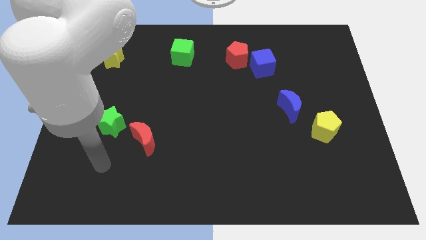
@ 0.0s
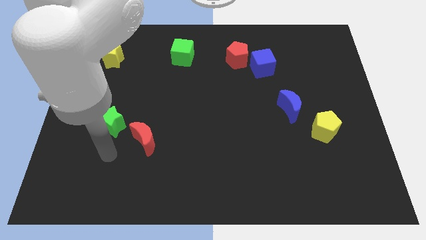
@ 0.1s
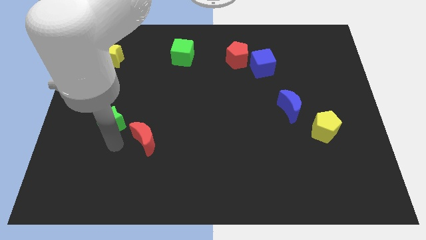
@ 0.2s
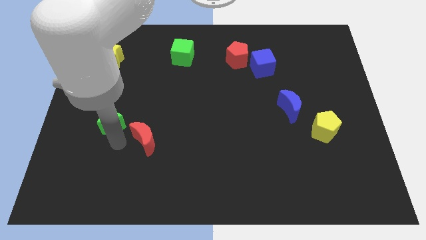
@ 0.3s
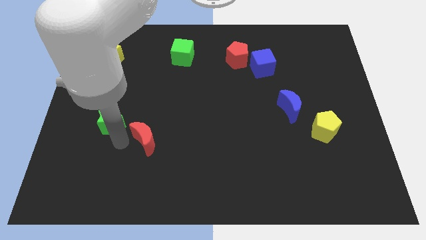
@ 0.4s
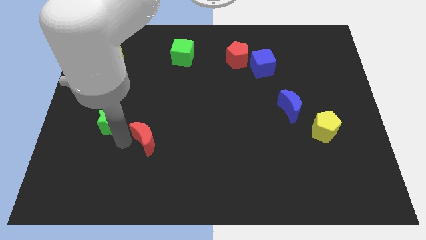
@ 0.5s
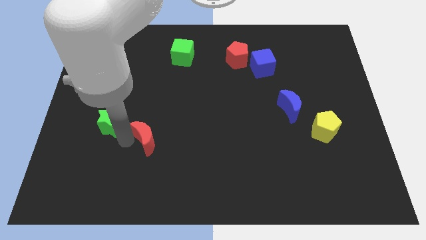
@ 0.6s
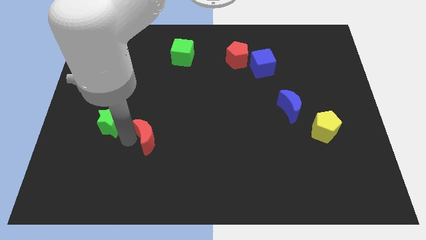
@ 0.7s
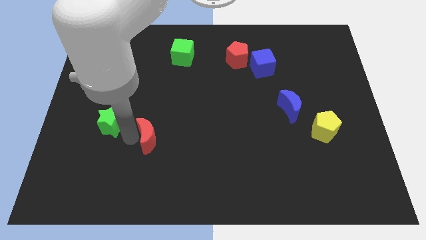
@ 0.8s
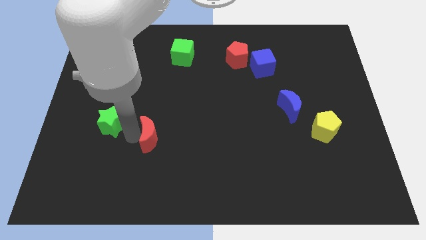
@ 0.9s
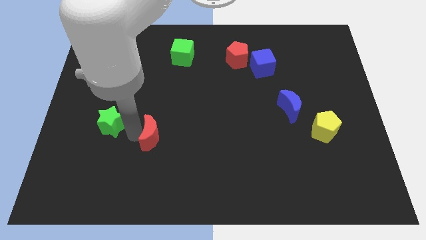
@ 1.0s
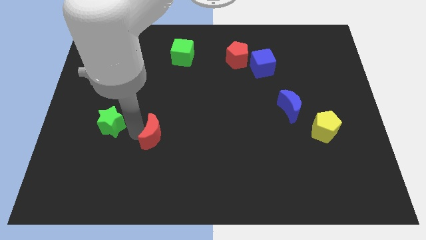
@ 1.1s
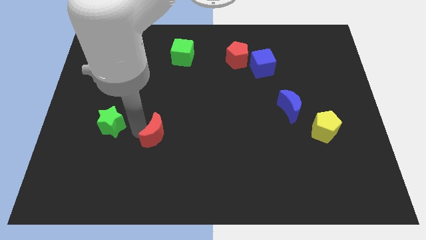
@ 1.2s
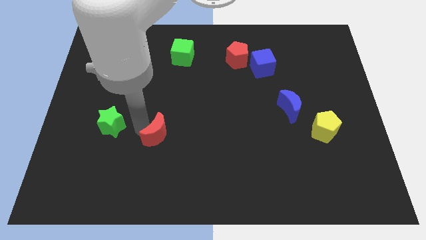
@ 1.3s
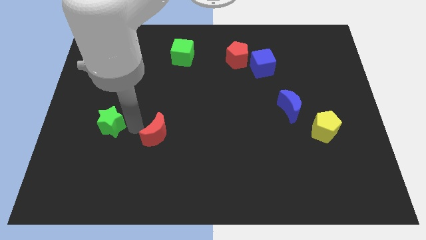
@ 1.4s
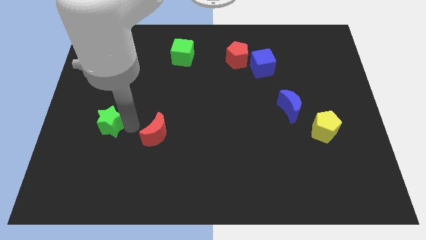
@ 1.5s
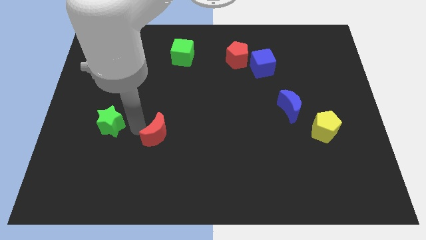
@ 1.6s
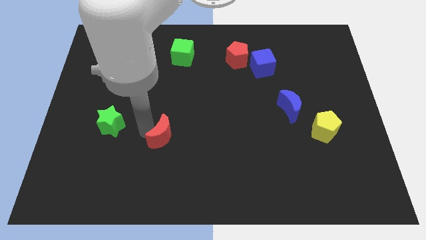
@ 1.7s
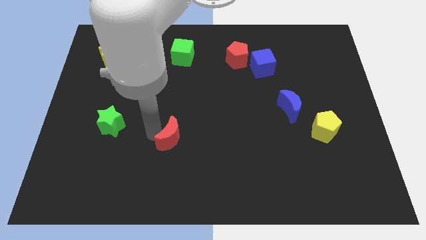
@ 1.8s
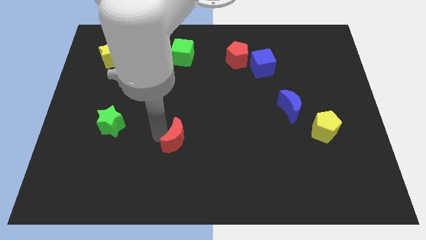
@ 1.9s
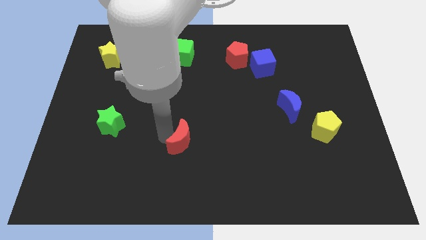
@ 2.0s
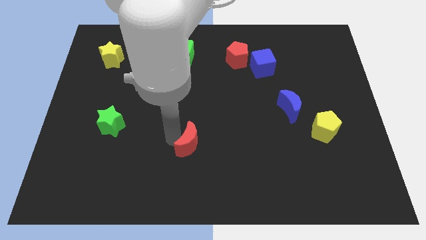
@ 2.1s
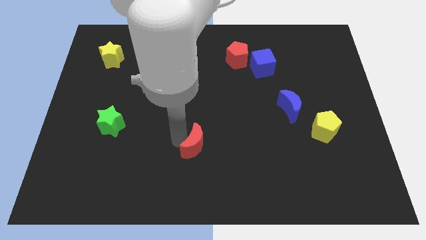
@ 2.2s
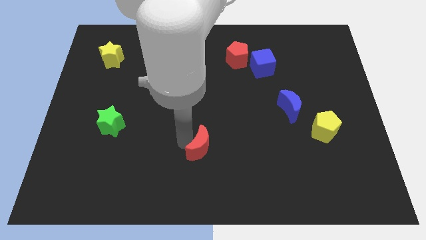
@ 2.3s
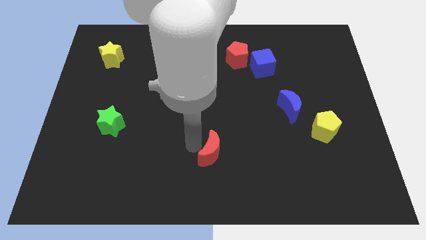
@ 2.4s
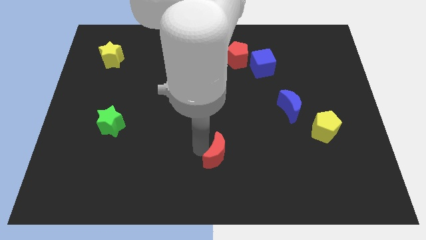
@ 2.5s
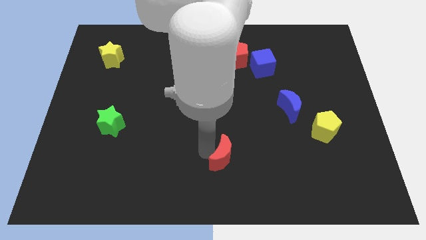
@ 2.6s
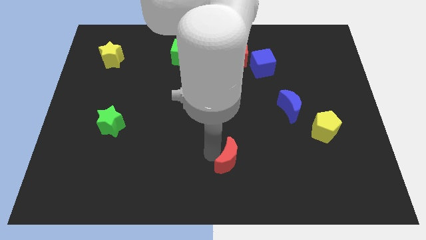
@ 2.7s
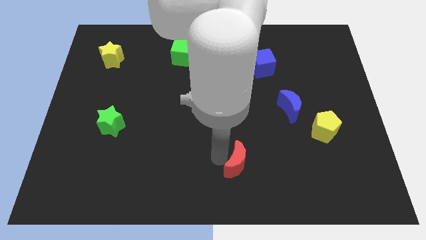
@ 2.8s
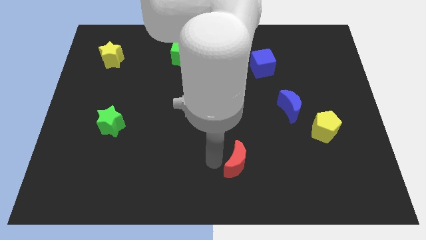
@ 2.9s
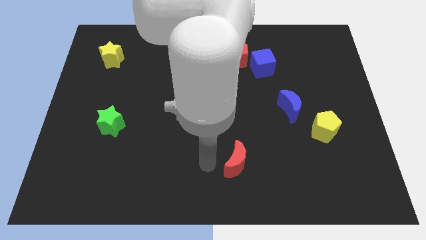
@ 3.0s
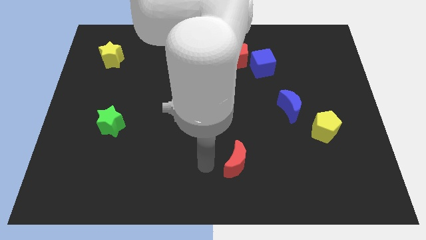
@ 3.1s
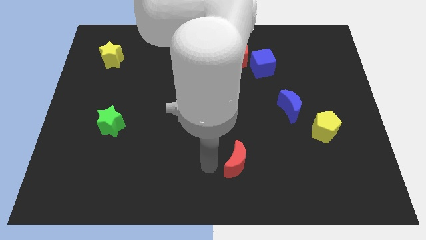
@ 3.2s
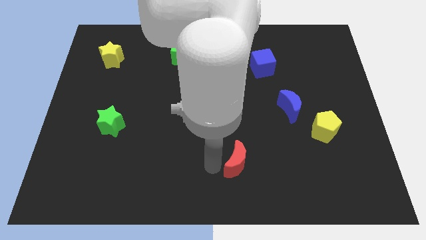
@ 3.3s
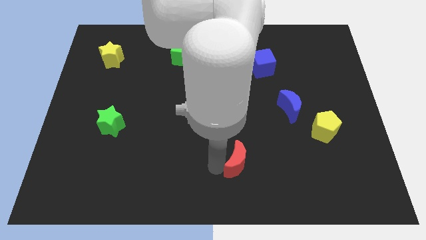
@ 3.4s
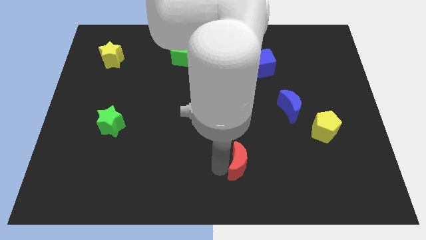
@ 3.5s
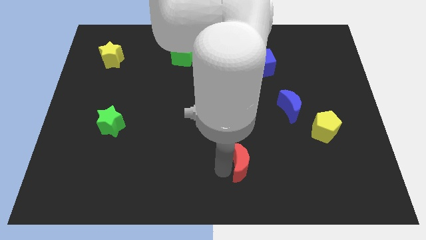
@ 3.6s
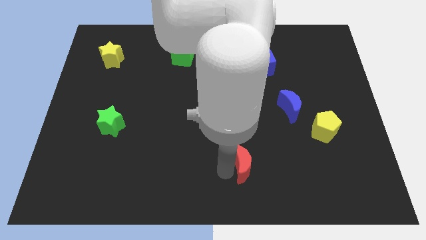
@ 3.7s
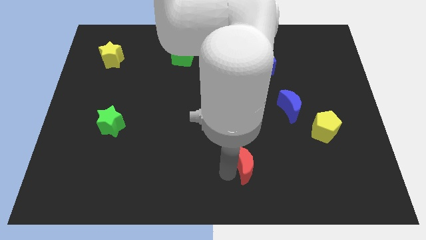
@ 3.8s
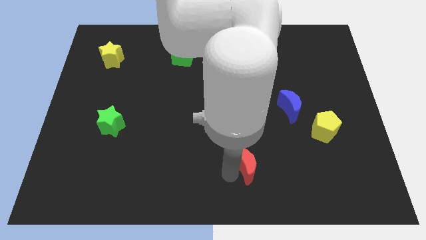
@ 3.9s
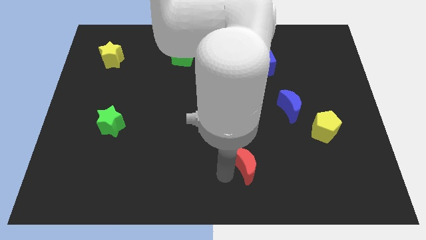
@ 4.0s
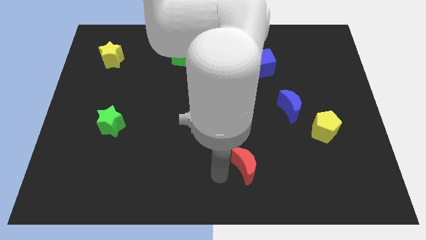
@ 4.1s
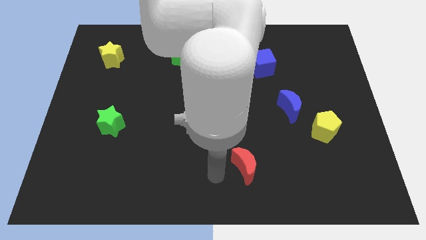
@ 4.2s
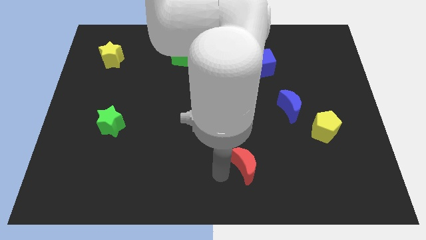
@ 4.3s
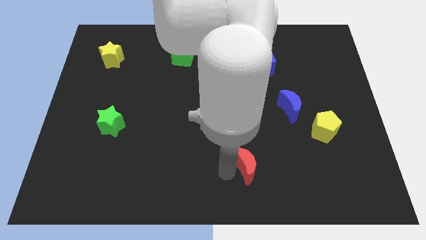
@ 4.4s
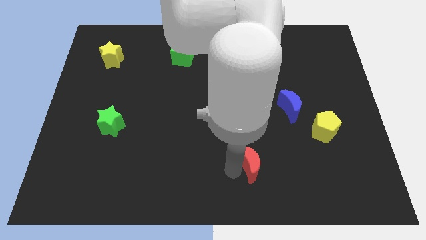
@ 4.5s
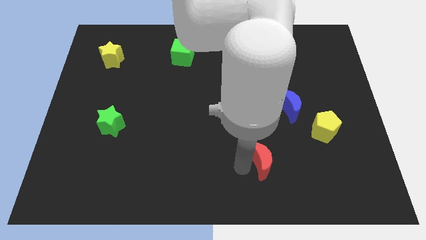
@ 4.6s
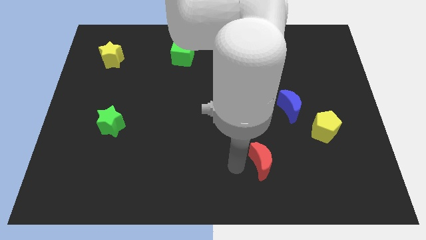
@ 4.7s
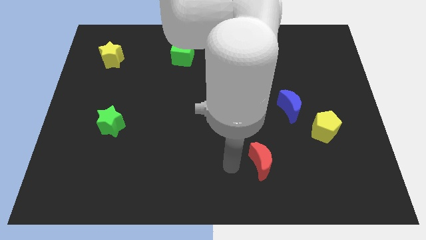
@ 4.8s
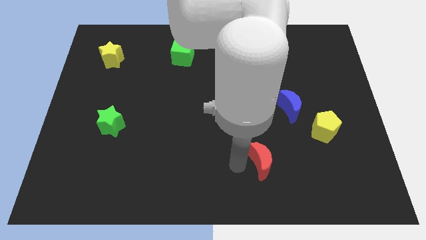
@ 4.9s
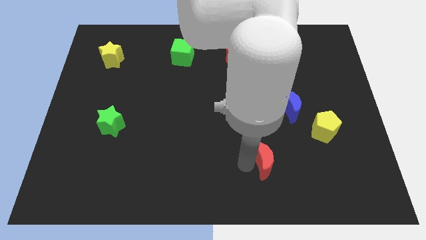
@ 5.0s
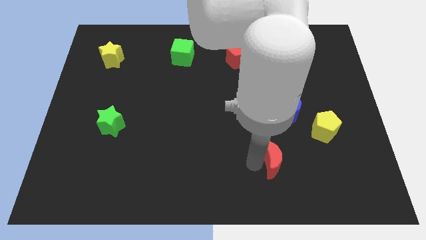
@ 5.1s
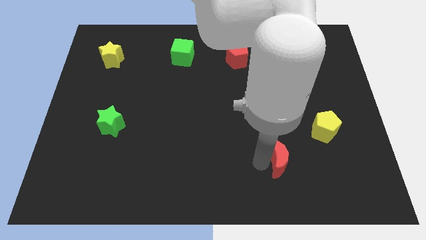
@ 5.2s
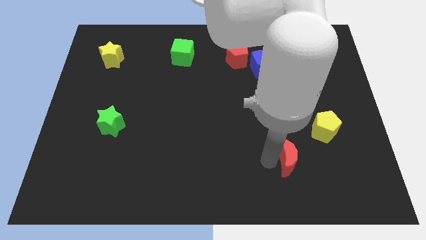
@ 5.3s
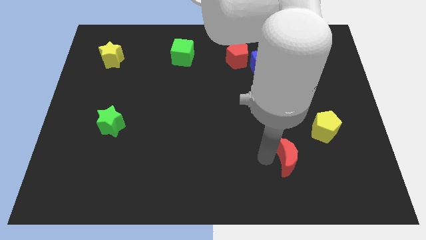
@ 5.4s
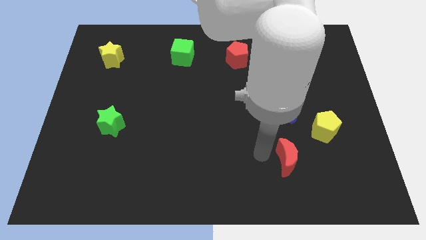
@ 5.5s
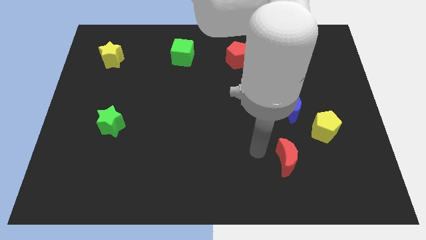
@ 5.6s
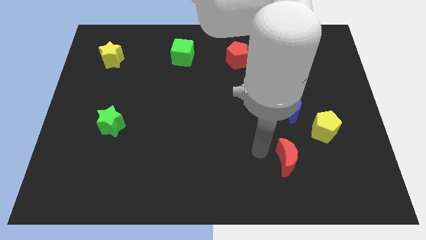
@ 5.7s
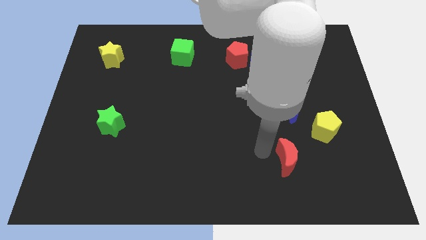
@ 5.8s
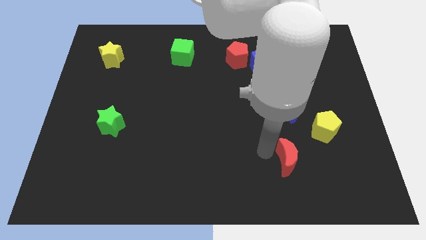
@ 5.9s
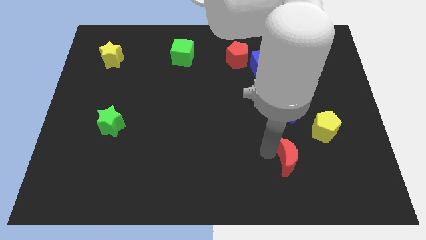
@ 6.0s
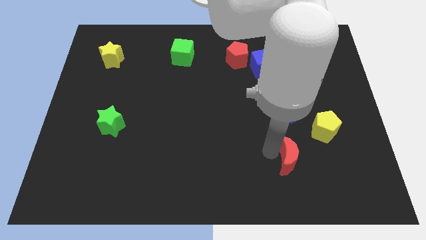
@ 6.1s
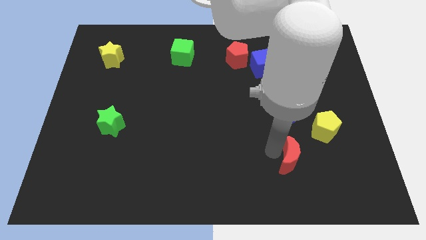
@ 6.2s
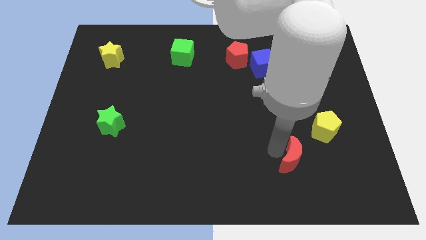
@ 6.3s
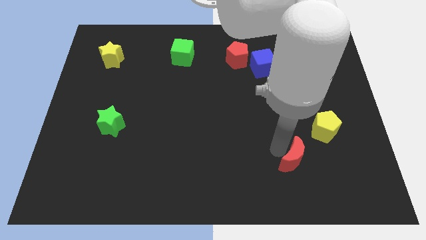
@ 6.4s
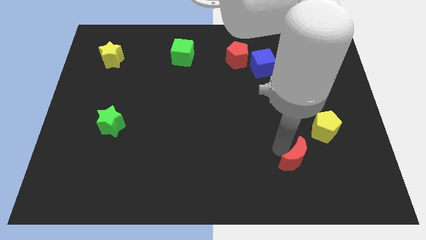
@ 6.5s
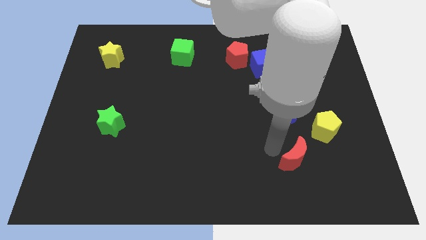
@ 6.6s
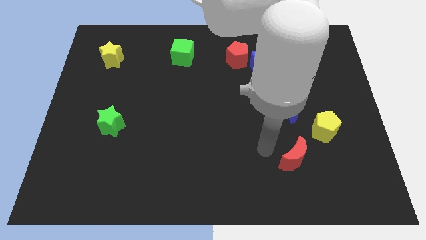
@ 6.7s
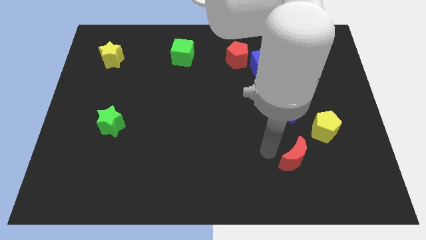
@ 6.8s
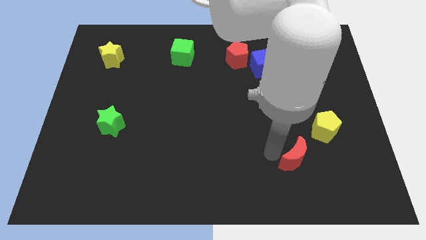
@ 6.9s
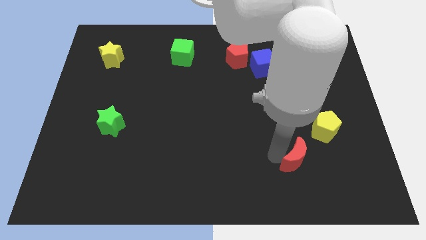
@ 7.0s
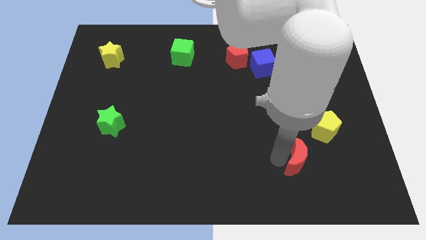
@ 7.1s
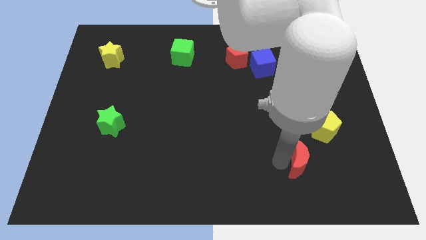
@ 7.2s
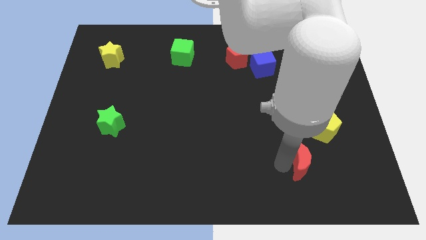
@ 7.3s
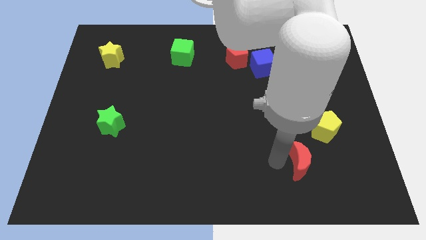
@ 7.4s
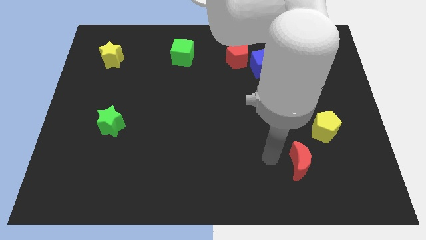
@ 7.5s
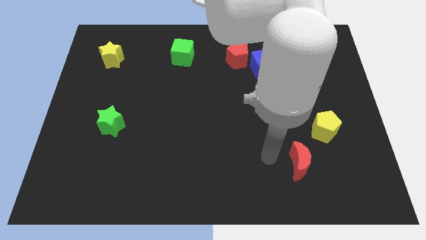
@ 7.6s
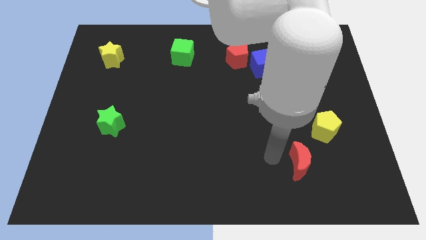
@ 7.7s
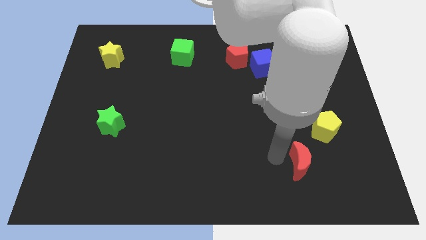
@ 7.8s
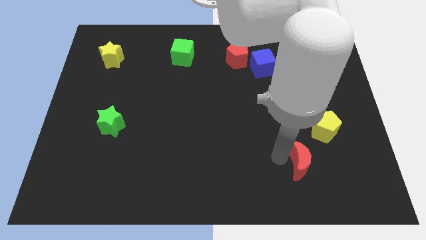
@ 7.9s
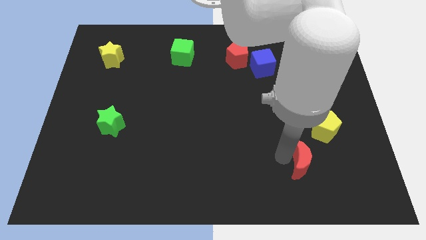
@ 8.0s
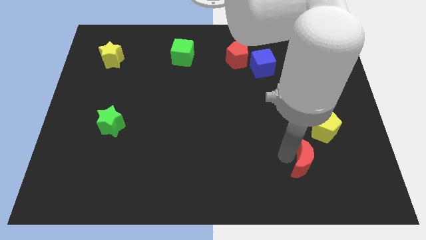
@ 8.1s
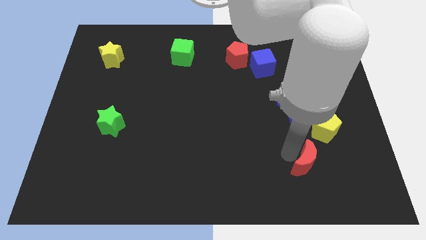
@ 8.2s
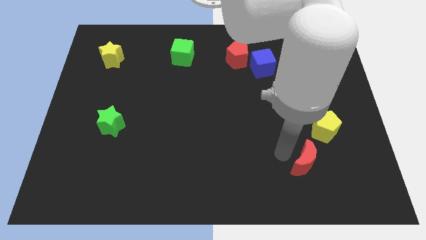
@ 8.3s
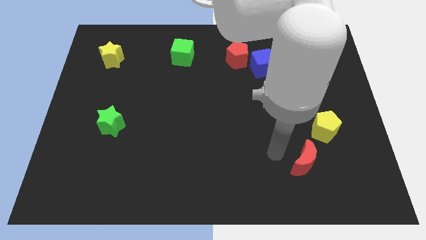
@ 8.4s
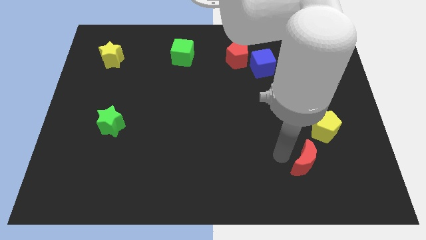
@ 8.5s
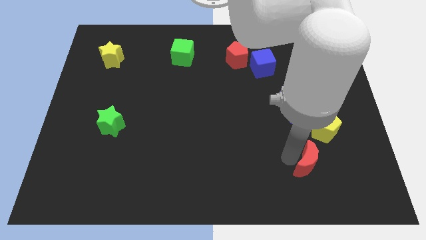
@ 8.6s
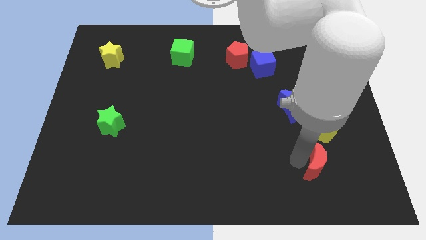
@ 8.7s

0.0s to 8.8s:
push the red moon below the yellow pentagon
